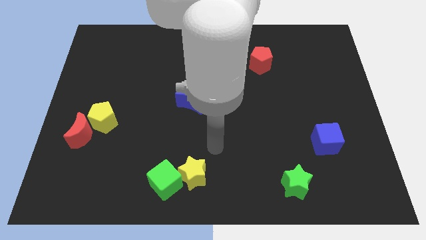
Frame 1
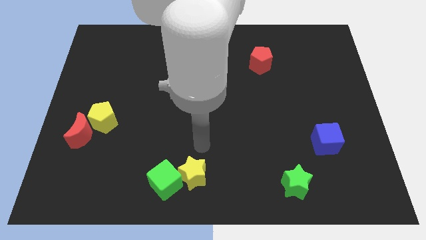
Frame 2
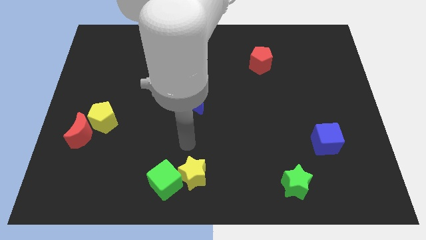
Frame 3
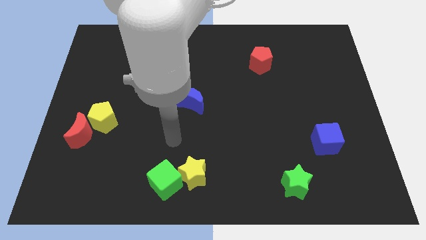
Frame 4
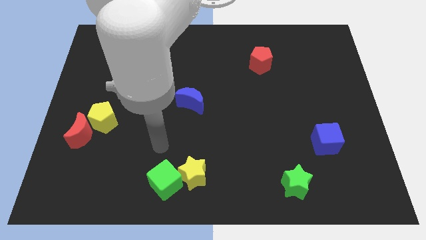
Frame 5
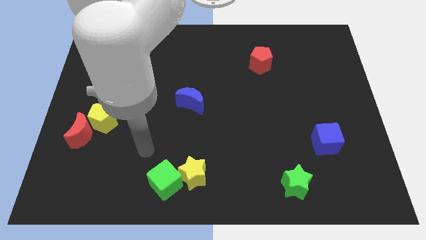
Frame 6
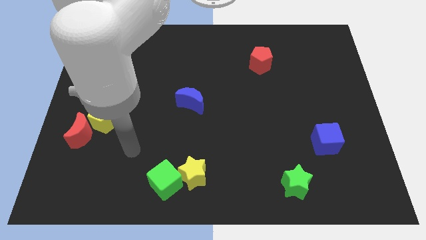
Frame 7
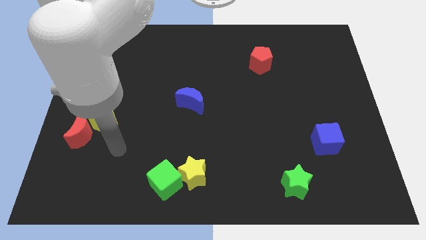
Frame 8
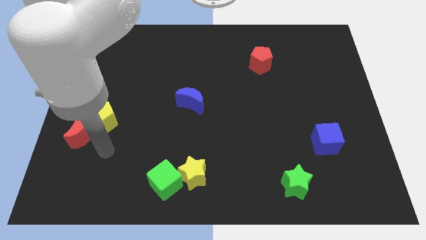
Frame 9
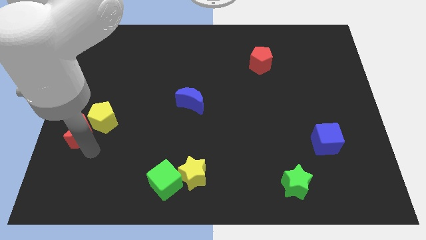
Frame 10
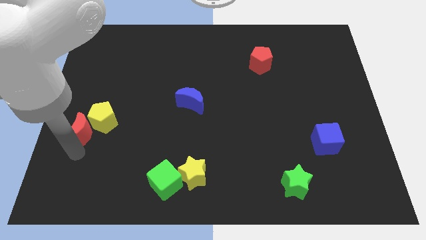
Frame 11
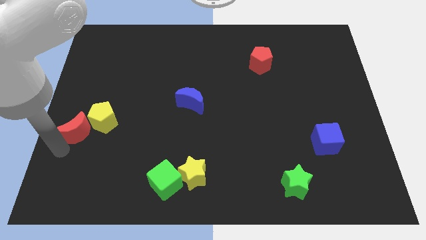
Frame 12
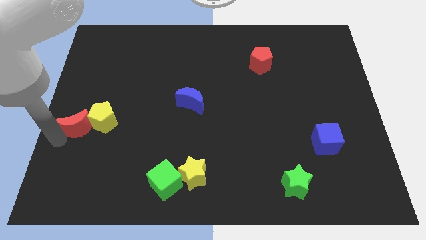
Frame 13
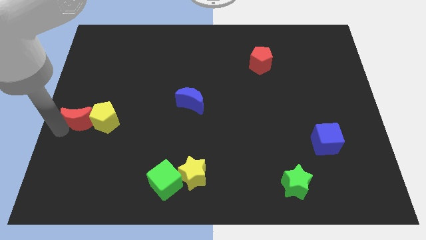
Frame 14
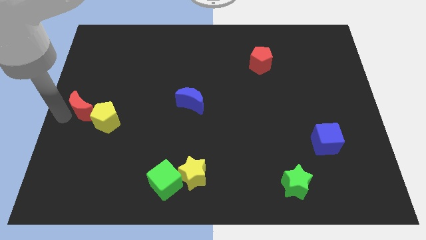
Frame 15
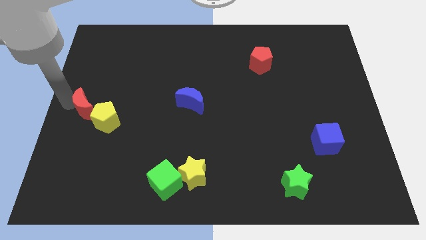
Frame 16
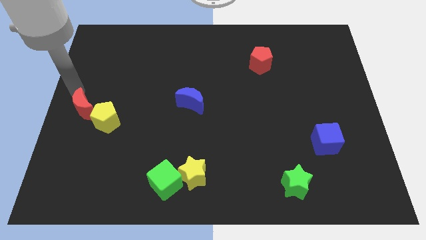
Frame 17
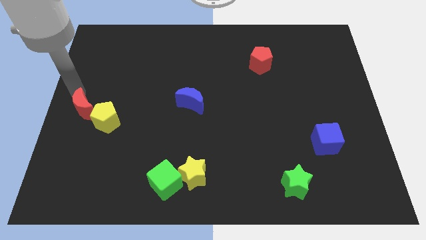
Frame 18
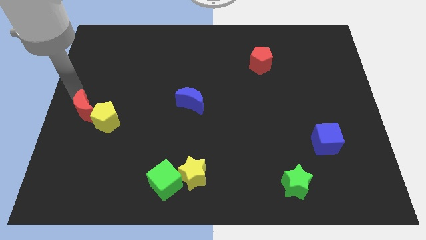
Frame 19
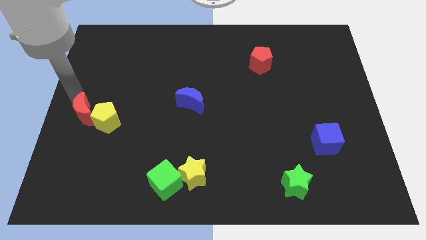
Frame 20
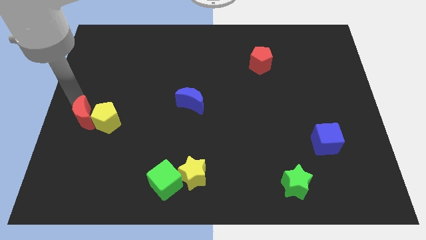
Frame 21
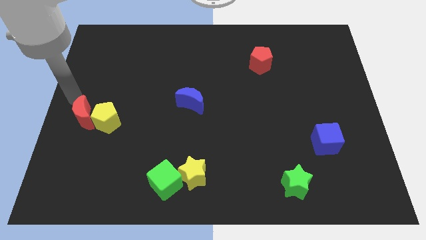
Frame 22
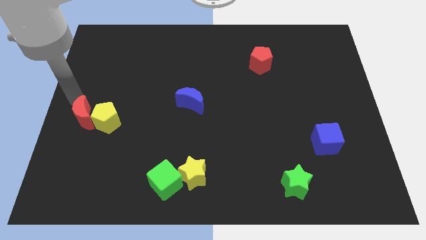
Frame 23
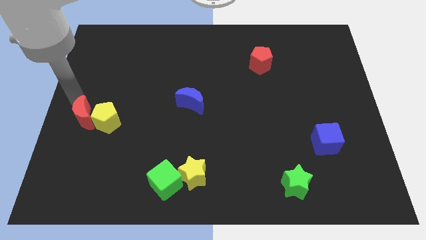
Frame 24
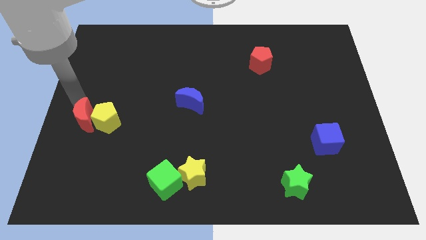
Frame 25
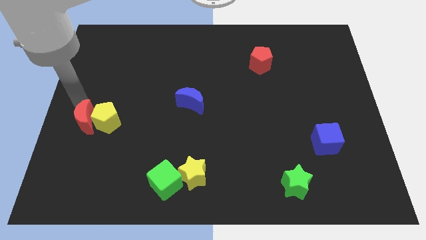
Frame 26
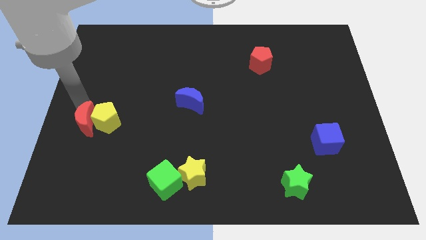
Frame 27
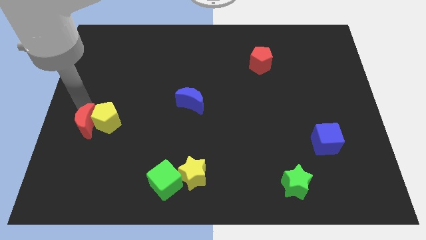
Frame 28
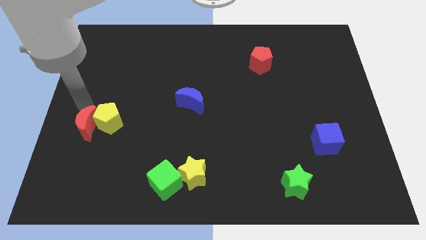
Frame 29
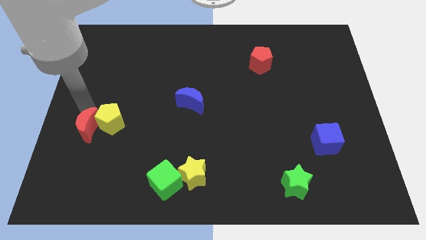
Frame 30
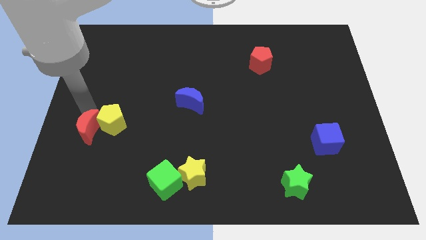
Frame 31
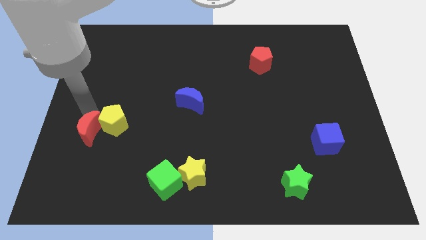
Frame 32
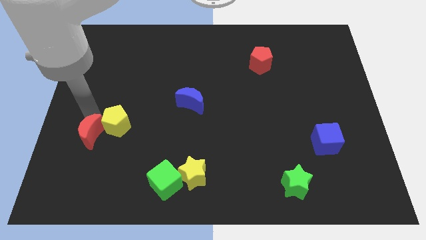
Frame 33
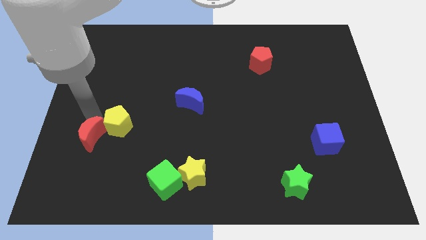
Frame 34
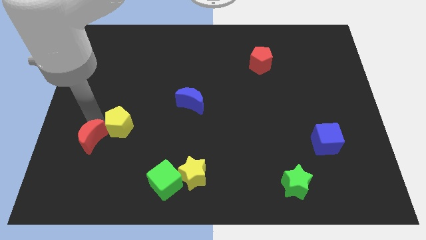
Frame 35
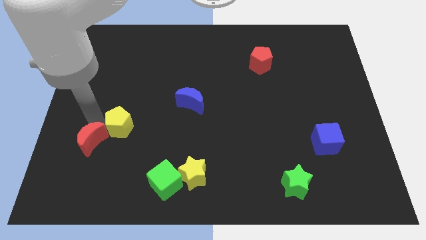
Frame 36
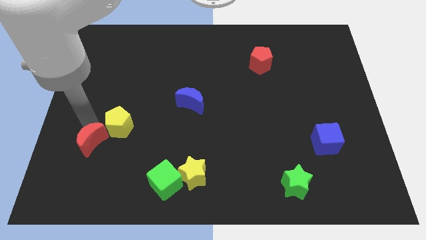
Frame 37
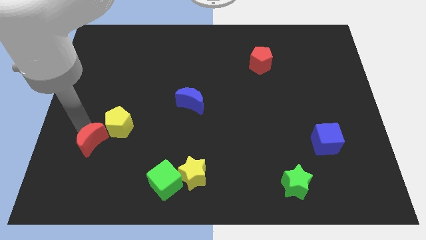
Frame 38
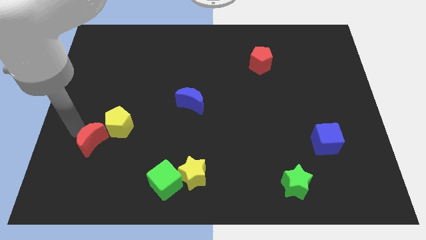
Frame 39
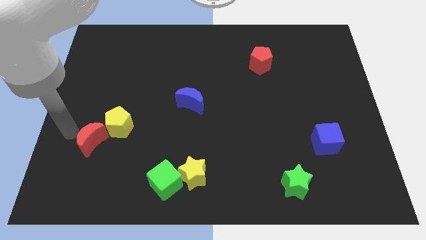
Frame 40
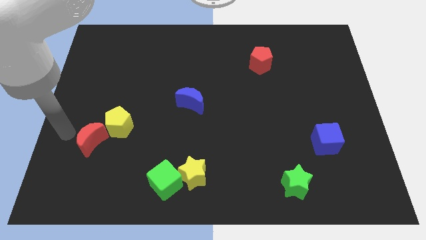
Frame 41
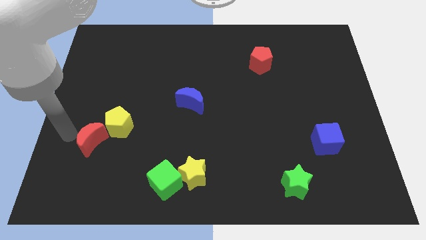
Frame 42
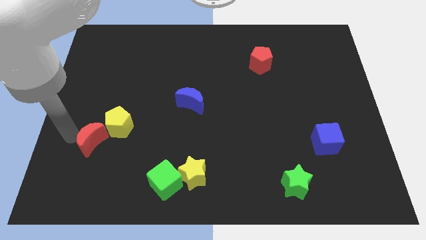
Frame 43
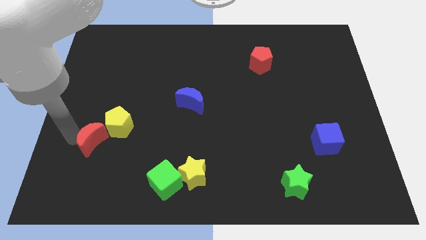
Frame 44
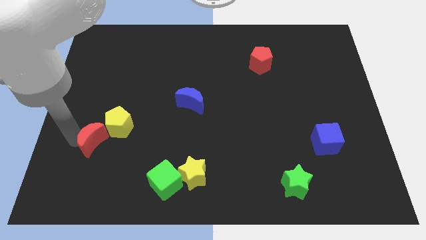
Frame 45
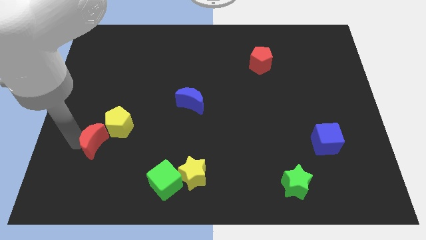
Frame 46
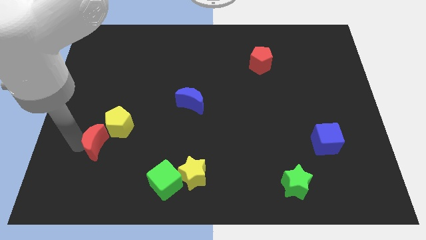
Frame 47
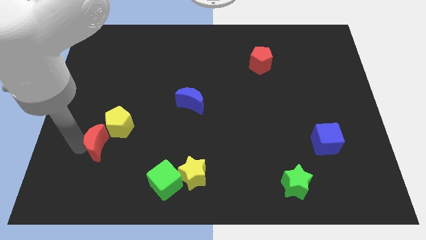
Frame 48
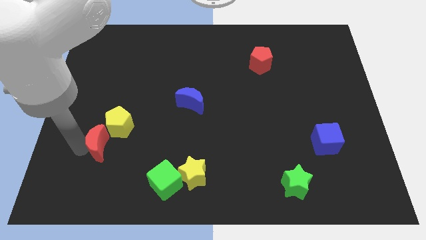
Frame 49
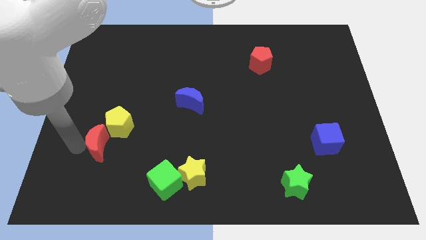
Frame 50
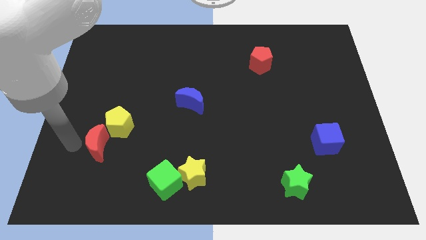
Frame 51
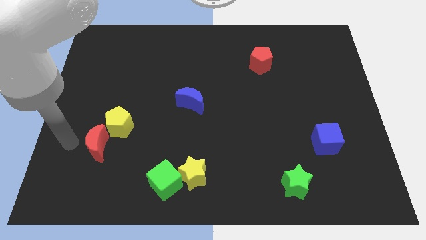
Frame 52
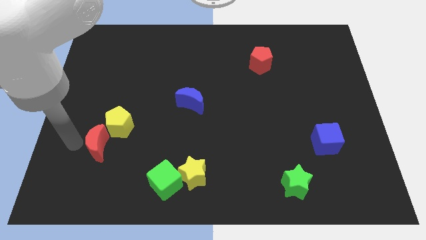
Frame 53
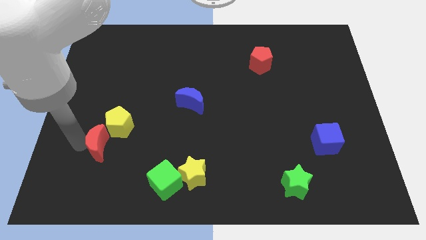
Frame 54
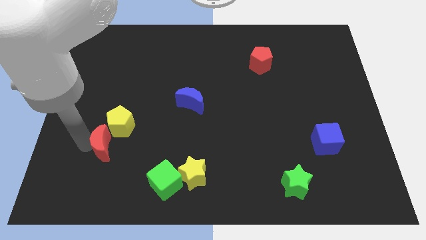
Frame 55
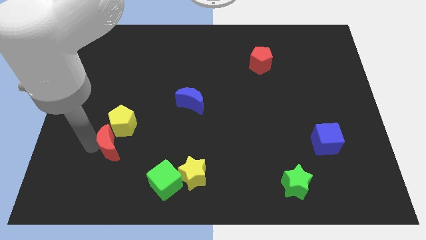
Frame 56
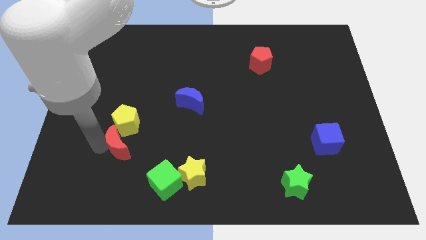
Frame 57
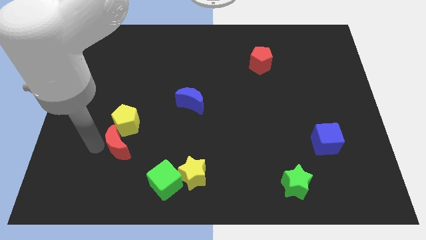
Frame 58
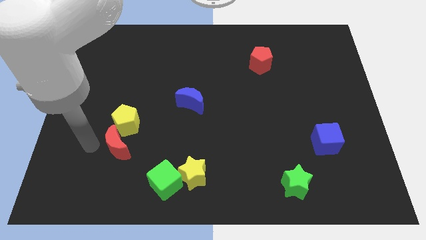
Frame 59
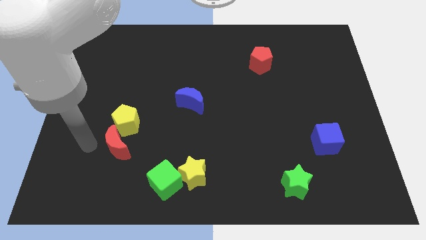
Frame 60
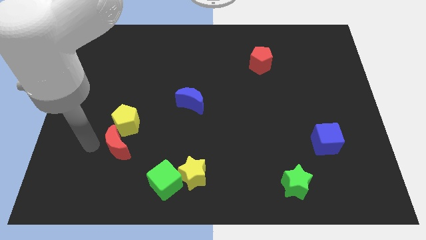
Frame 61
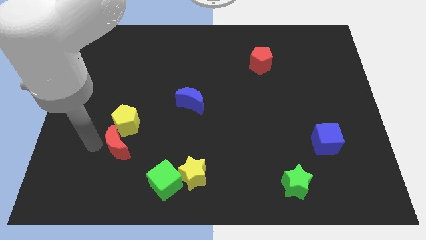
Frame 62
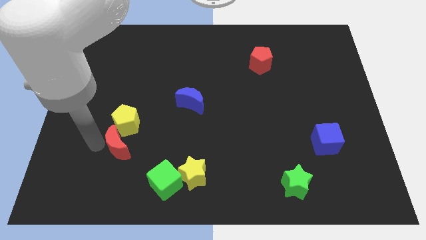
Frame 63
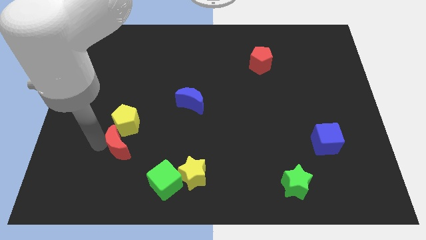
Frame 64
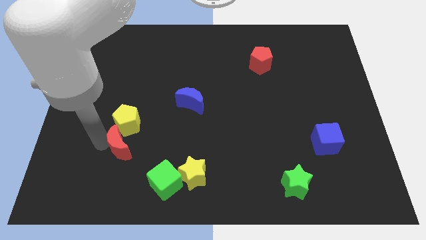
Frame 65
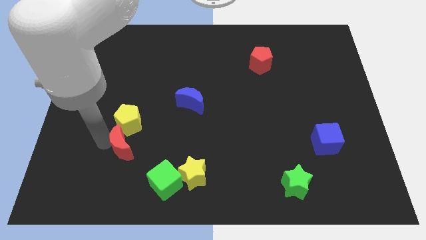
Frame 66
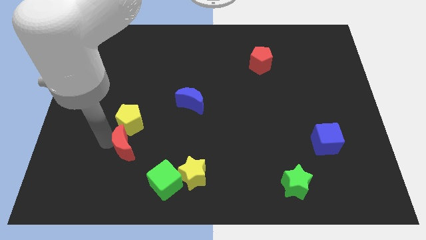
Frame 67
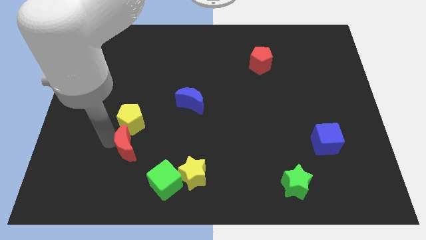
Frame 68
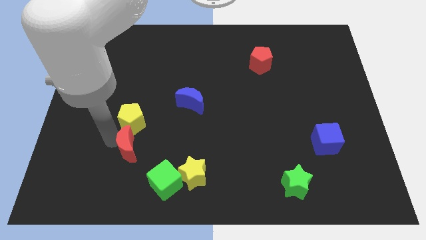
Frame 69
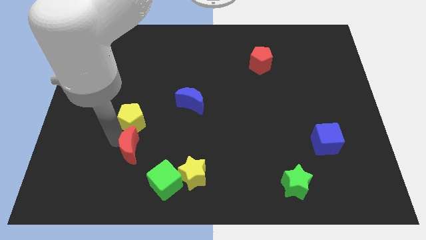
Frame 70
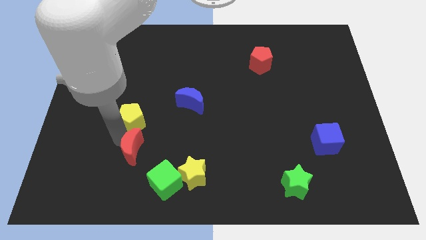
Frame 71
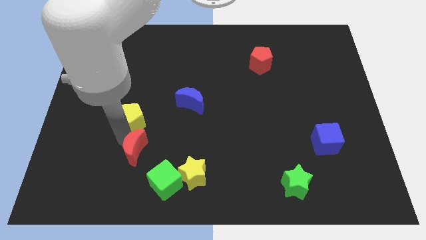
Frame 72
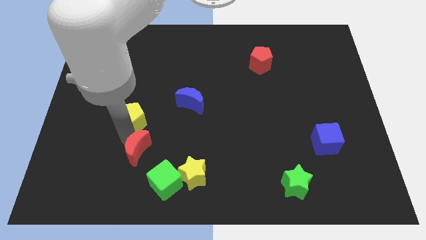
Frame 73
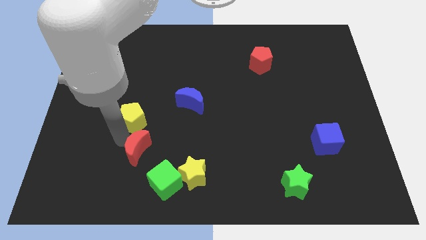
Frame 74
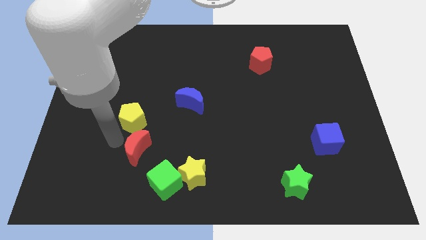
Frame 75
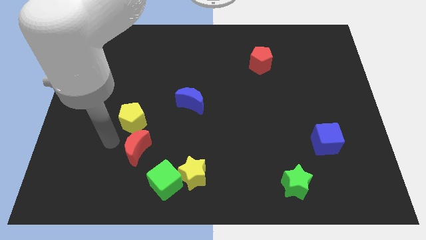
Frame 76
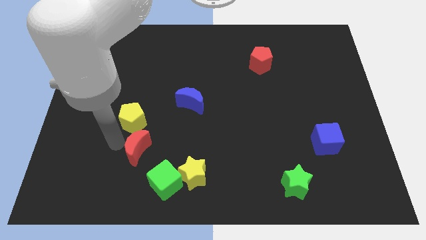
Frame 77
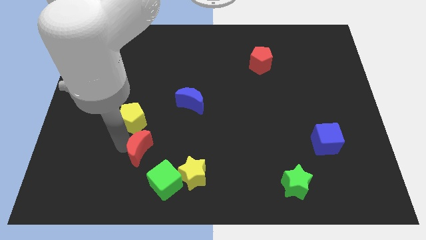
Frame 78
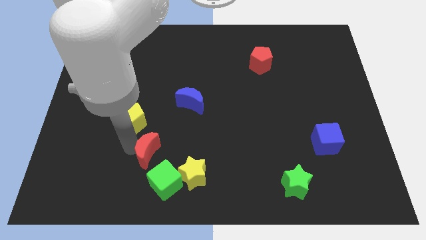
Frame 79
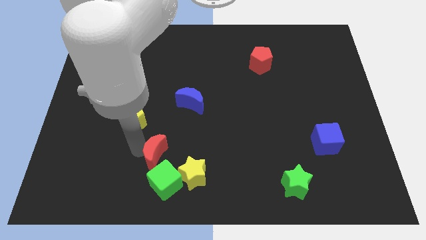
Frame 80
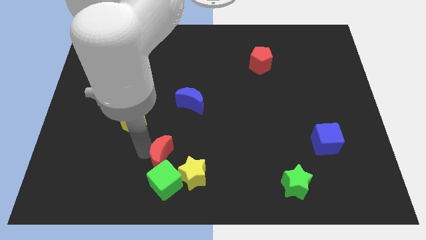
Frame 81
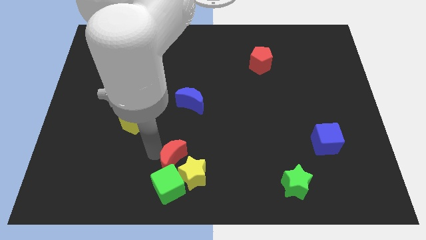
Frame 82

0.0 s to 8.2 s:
put the red moon close to the yellow star
